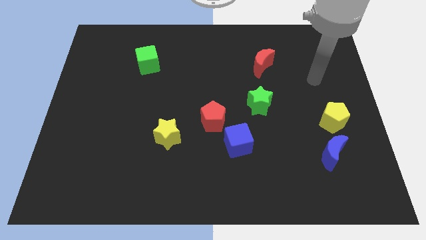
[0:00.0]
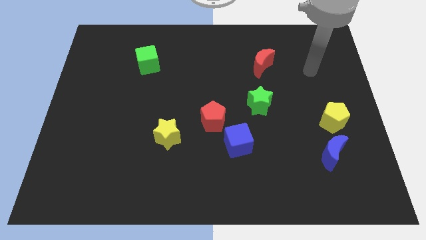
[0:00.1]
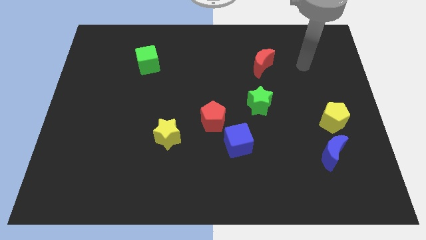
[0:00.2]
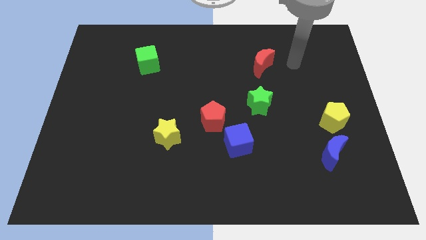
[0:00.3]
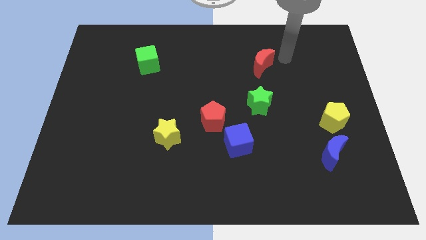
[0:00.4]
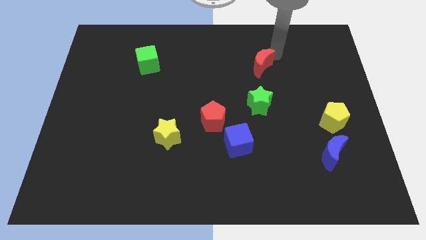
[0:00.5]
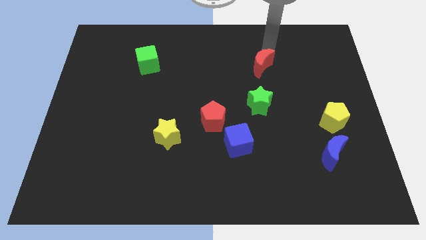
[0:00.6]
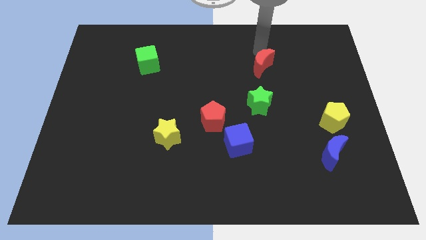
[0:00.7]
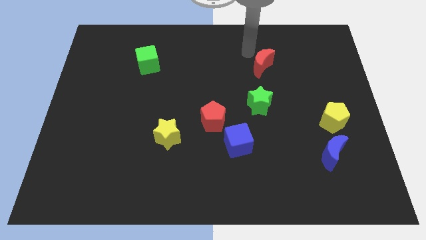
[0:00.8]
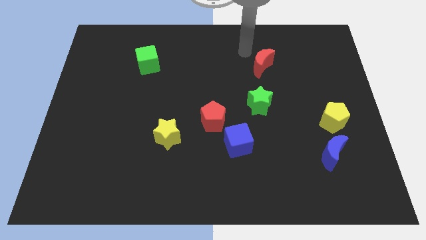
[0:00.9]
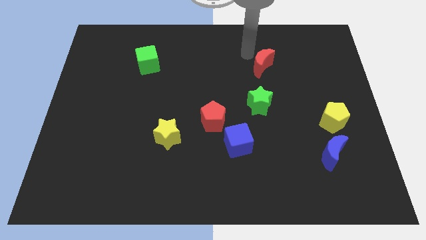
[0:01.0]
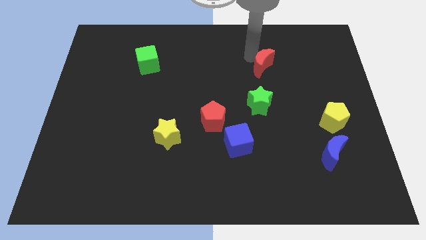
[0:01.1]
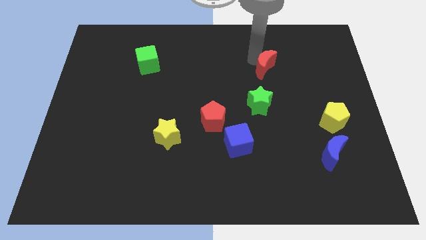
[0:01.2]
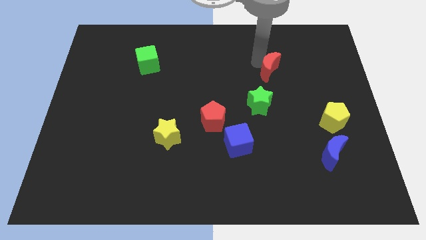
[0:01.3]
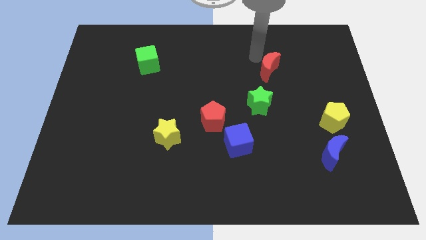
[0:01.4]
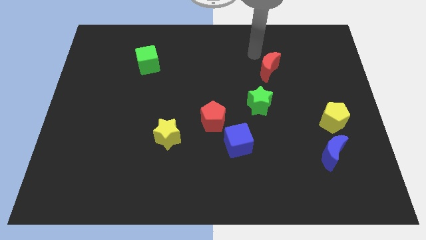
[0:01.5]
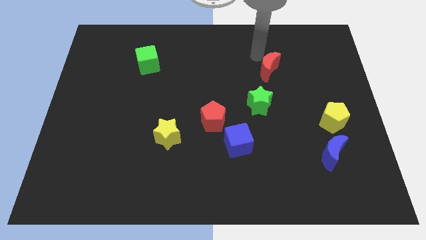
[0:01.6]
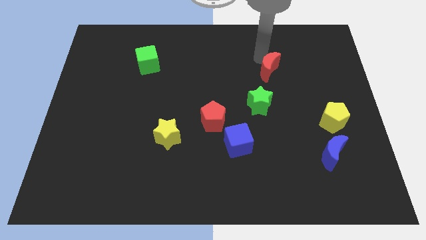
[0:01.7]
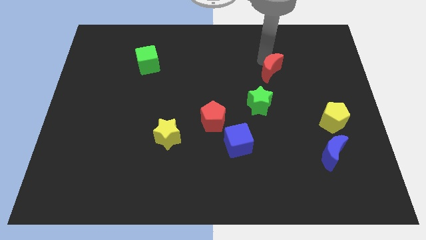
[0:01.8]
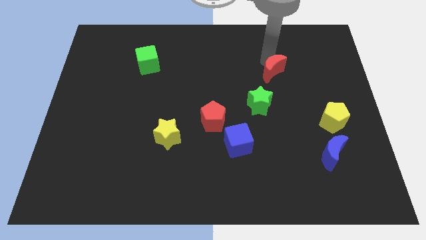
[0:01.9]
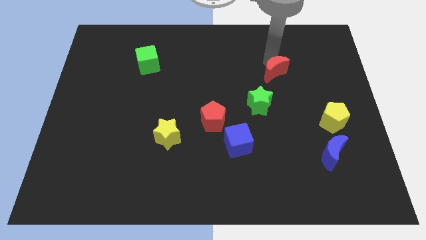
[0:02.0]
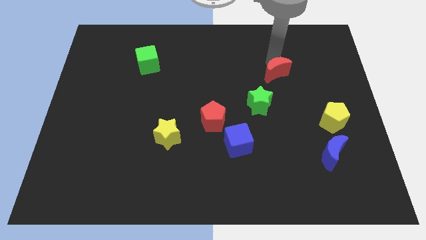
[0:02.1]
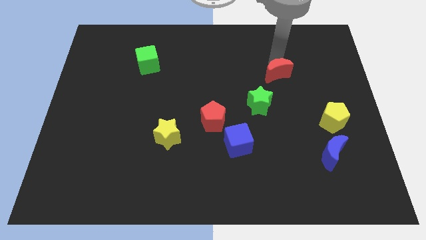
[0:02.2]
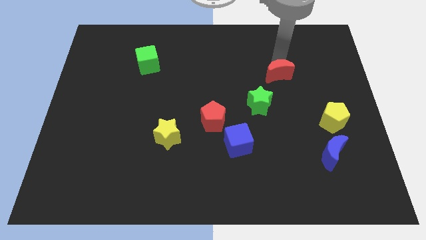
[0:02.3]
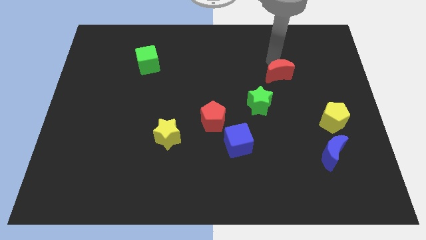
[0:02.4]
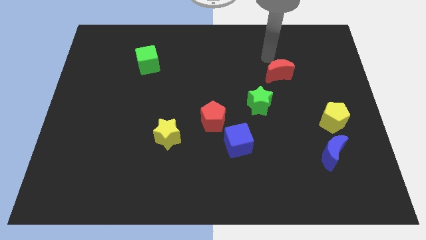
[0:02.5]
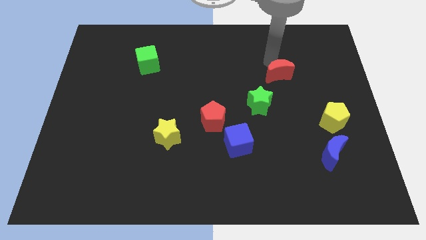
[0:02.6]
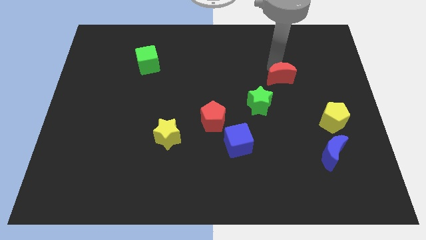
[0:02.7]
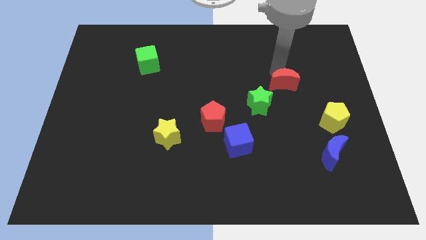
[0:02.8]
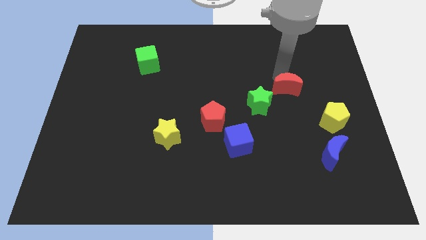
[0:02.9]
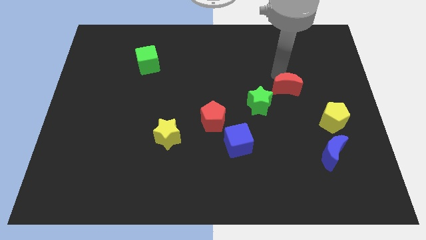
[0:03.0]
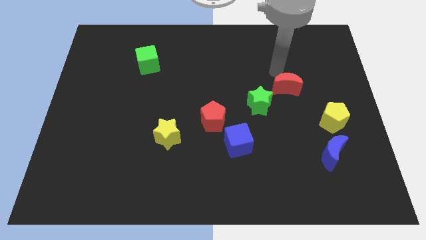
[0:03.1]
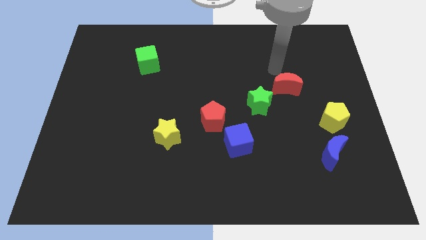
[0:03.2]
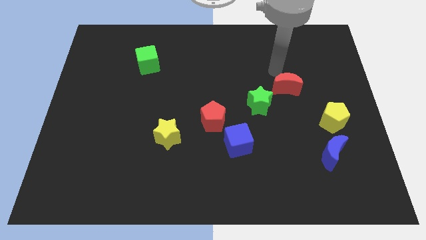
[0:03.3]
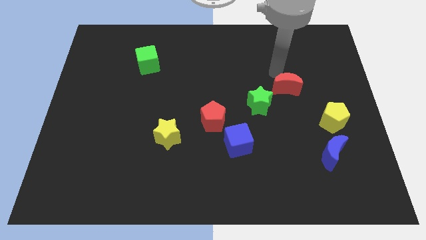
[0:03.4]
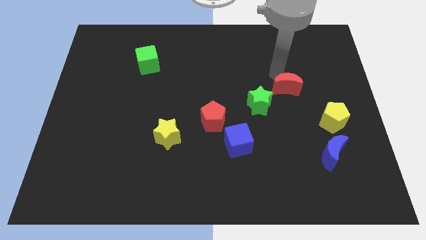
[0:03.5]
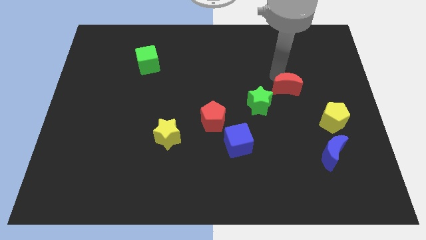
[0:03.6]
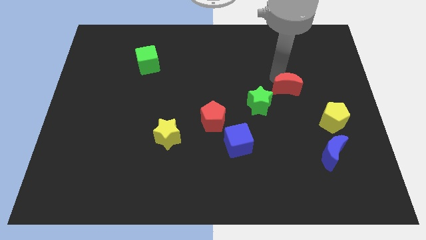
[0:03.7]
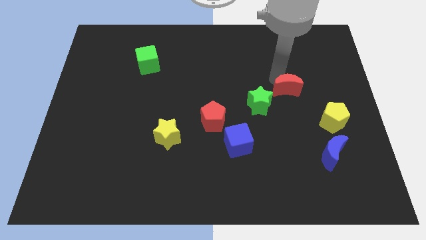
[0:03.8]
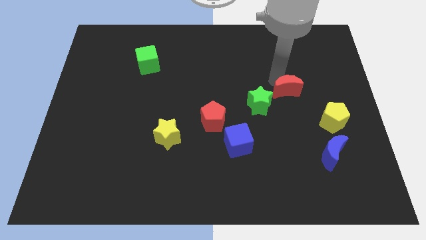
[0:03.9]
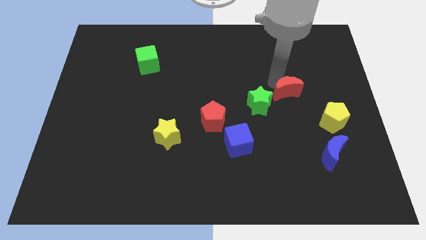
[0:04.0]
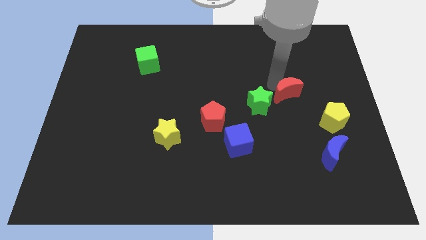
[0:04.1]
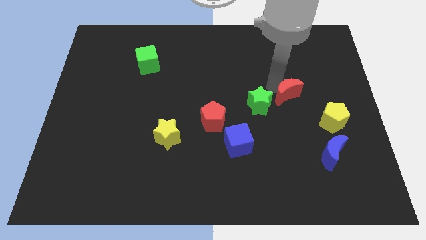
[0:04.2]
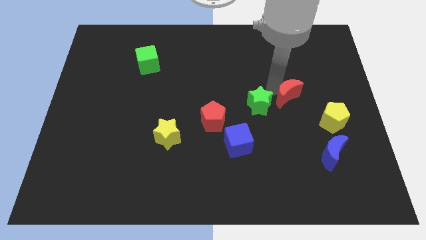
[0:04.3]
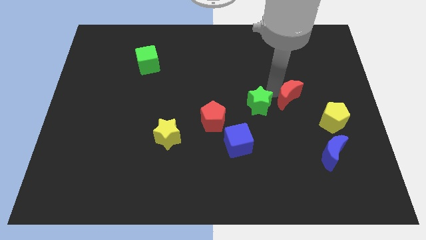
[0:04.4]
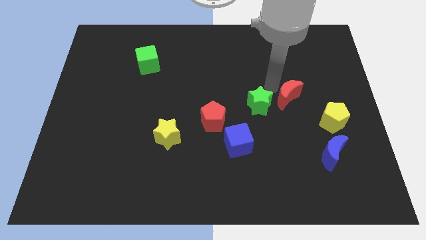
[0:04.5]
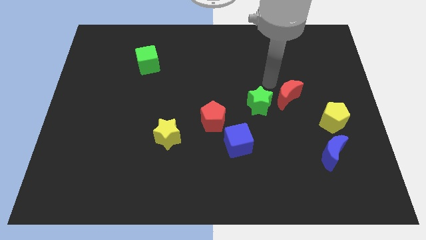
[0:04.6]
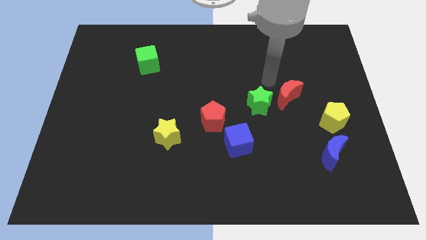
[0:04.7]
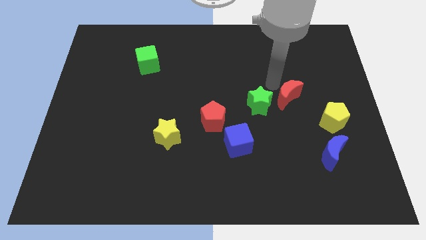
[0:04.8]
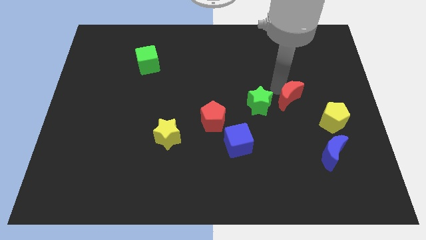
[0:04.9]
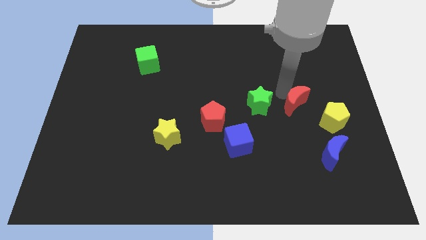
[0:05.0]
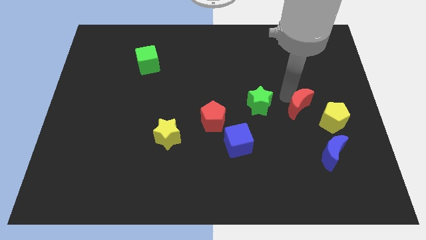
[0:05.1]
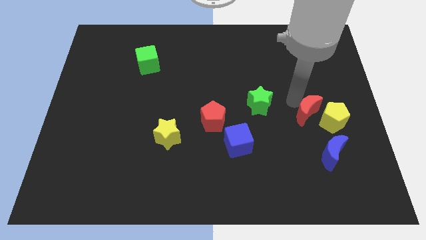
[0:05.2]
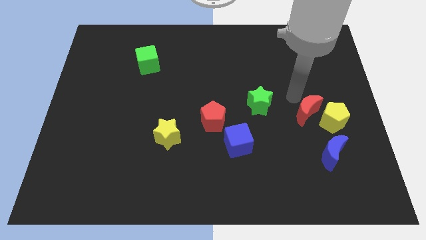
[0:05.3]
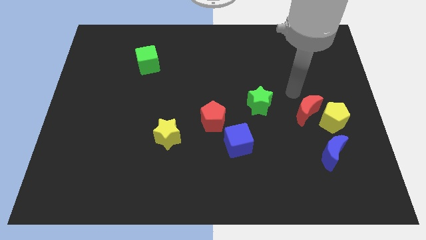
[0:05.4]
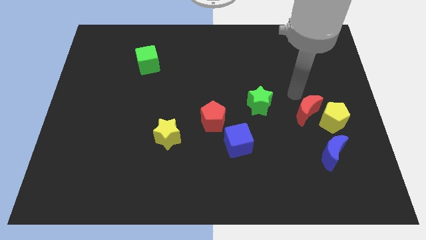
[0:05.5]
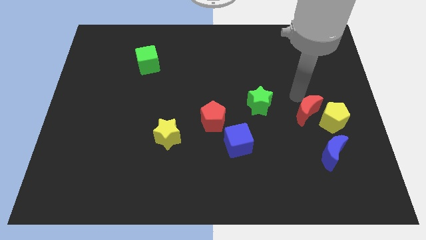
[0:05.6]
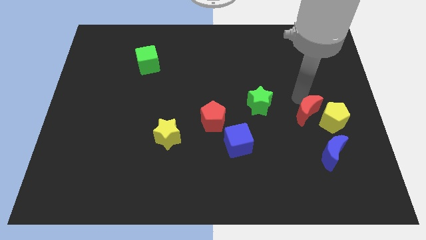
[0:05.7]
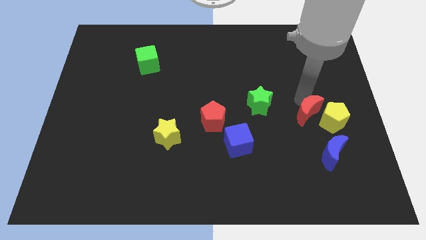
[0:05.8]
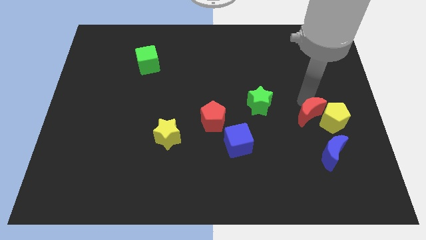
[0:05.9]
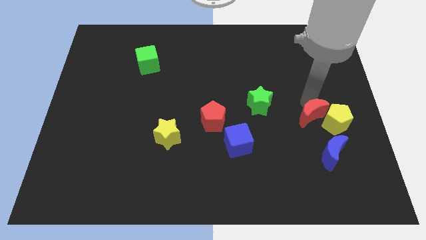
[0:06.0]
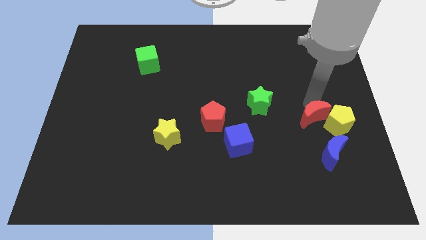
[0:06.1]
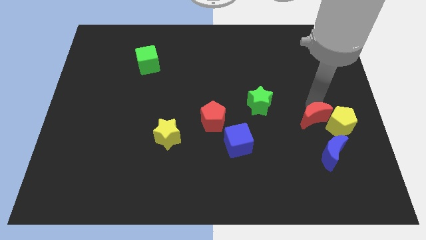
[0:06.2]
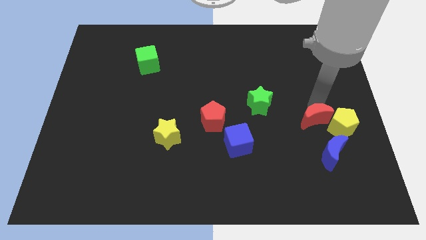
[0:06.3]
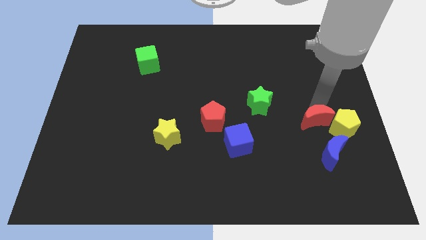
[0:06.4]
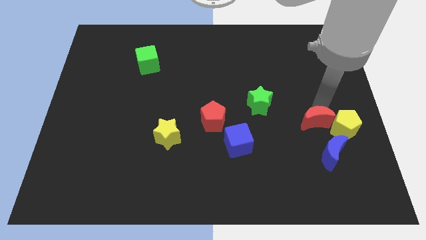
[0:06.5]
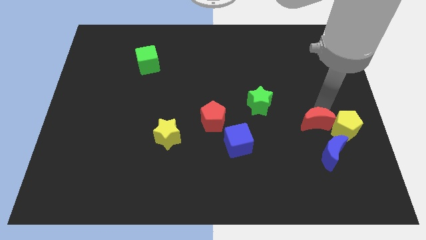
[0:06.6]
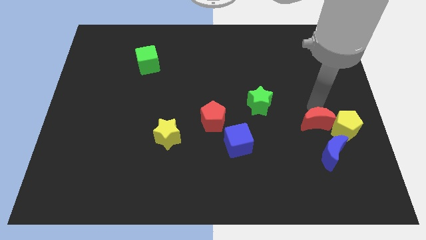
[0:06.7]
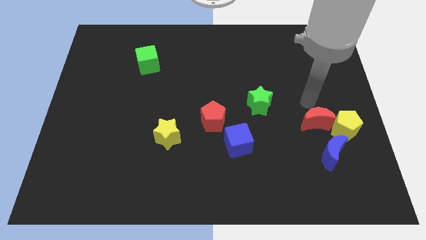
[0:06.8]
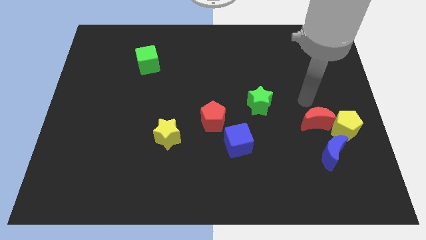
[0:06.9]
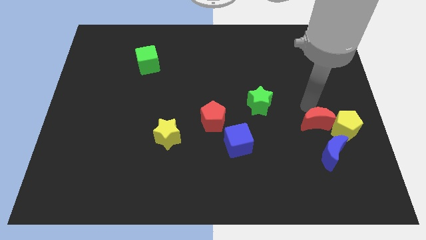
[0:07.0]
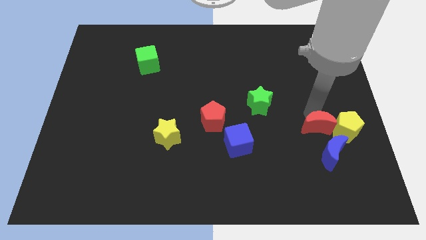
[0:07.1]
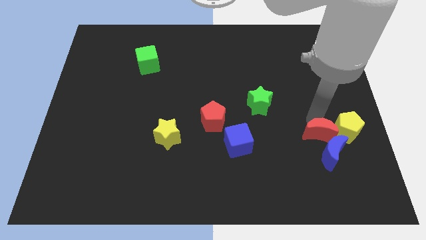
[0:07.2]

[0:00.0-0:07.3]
push the red moon next to the blue moon
